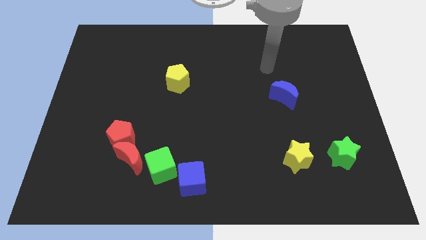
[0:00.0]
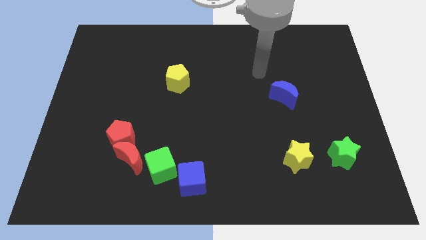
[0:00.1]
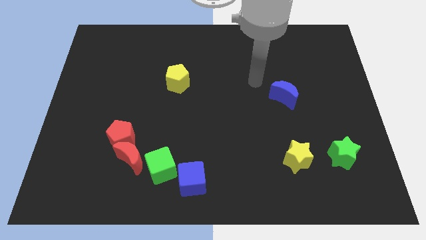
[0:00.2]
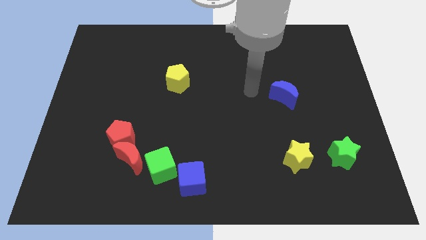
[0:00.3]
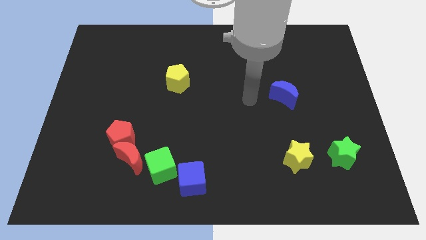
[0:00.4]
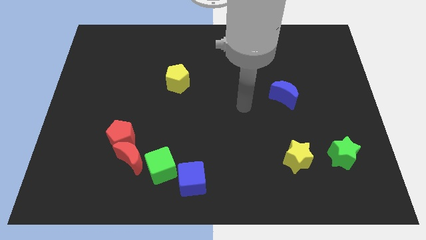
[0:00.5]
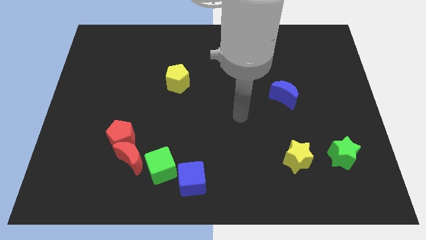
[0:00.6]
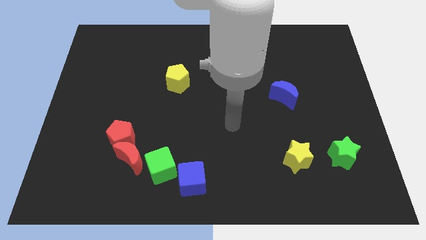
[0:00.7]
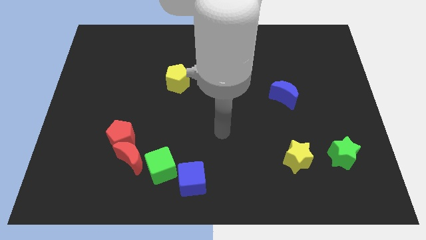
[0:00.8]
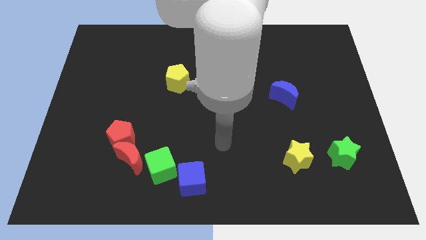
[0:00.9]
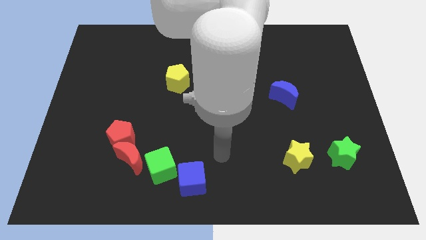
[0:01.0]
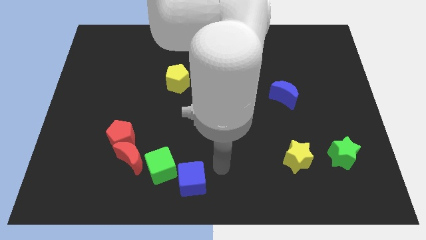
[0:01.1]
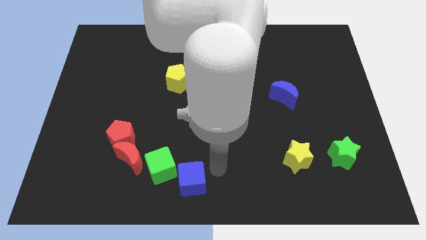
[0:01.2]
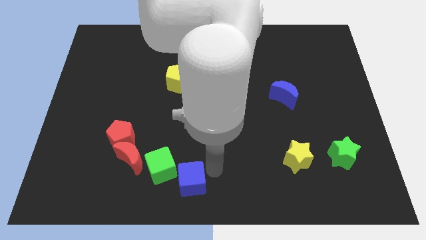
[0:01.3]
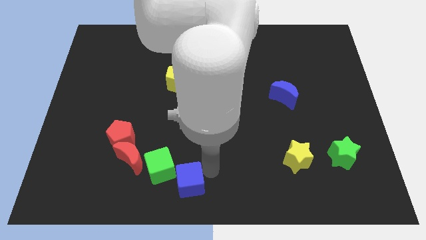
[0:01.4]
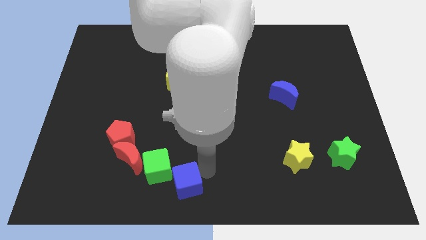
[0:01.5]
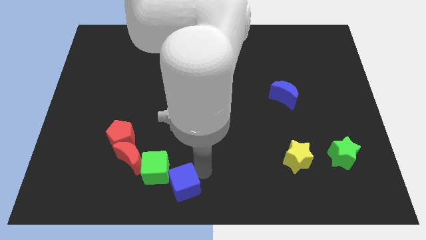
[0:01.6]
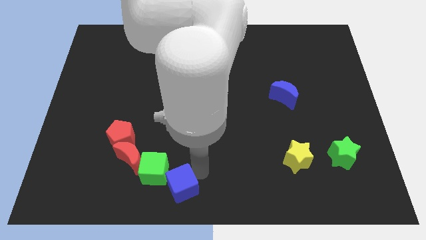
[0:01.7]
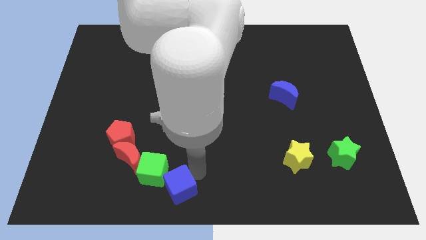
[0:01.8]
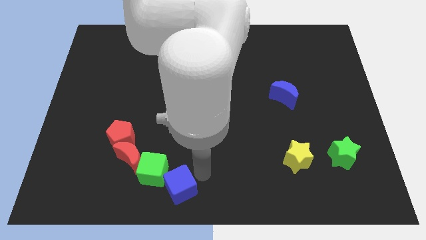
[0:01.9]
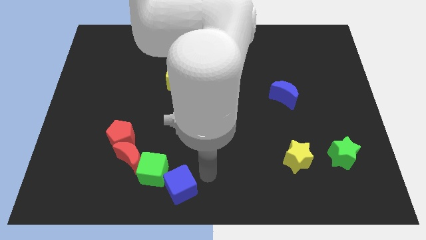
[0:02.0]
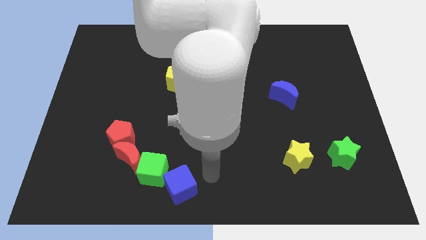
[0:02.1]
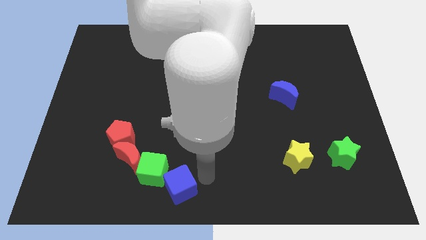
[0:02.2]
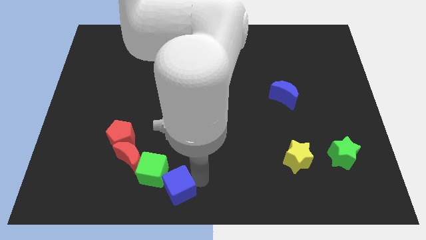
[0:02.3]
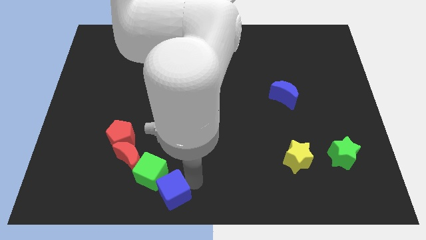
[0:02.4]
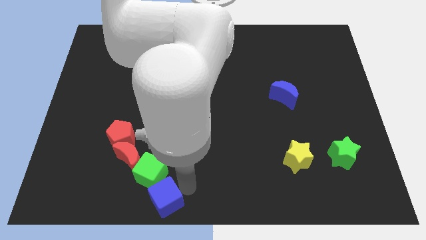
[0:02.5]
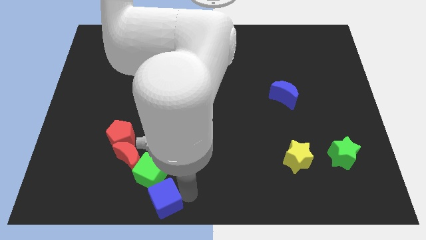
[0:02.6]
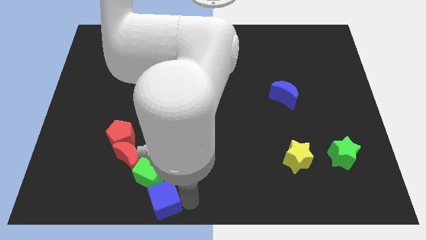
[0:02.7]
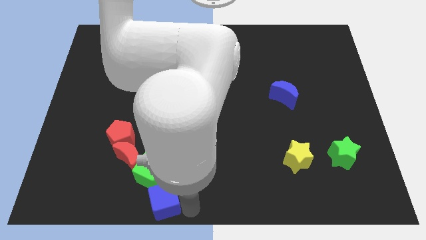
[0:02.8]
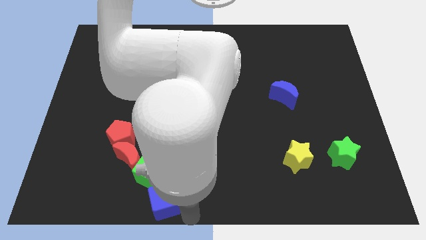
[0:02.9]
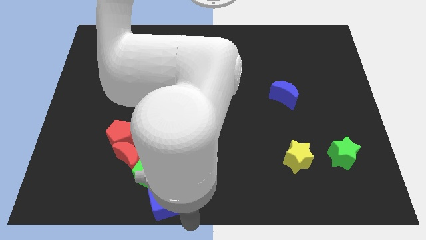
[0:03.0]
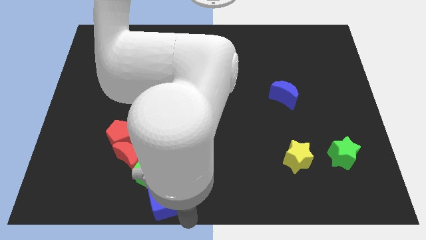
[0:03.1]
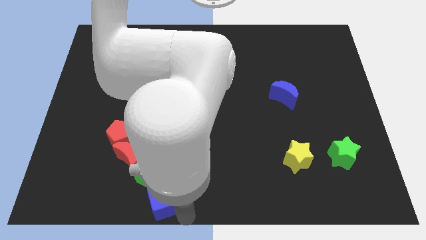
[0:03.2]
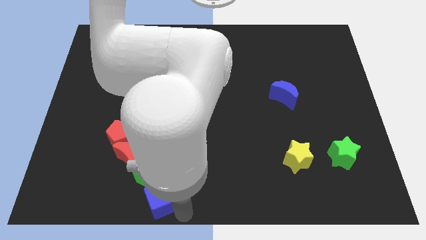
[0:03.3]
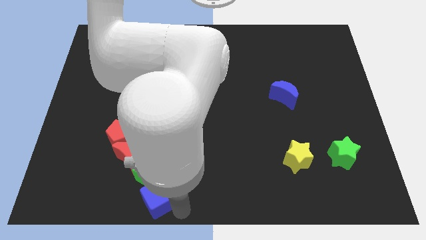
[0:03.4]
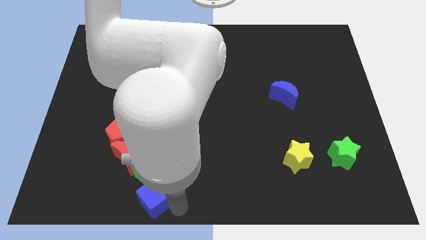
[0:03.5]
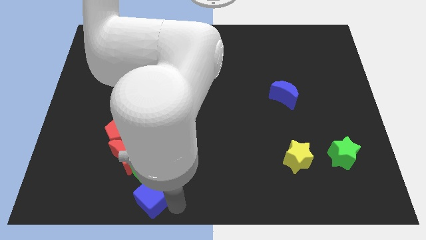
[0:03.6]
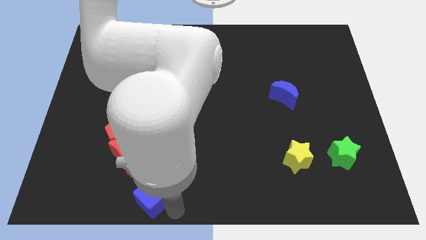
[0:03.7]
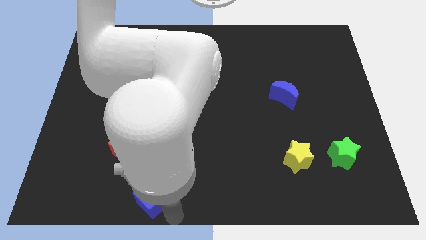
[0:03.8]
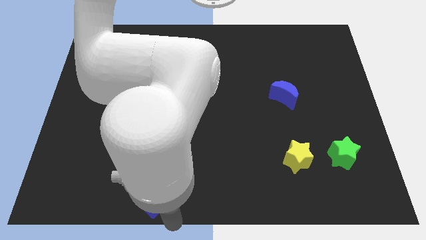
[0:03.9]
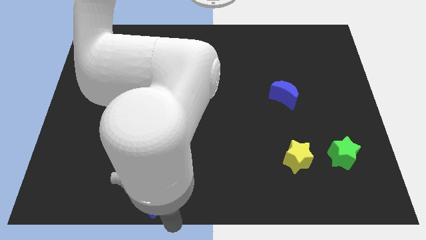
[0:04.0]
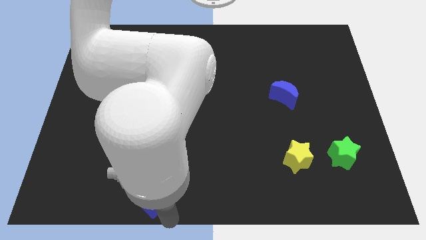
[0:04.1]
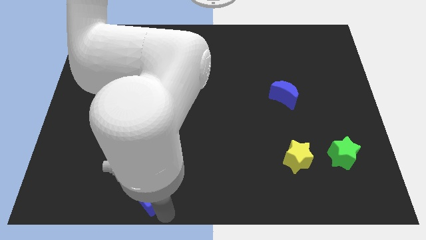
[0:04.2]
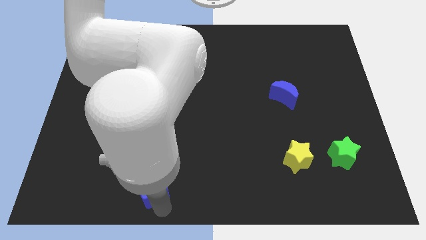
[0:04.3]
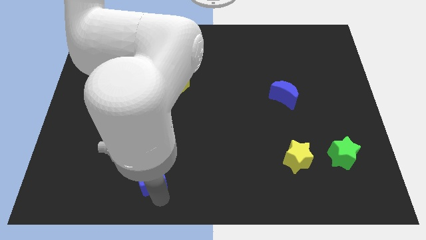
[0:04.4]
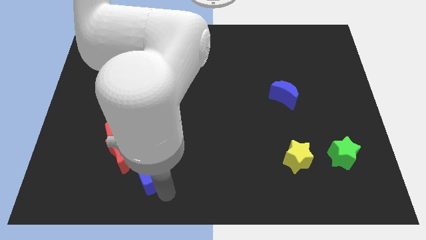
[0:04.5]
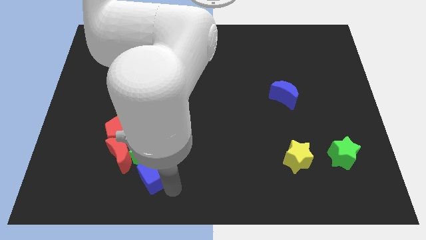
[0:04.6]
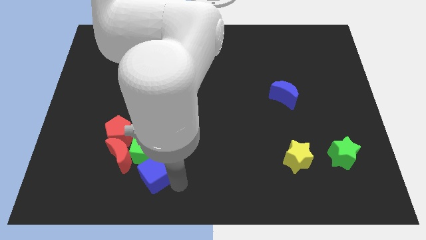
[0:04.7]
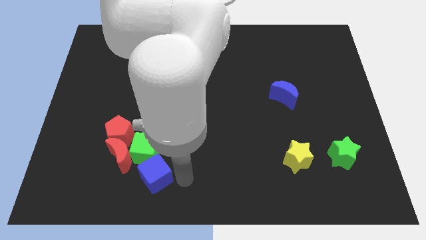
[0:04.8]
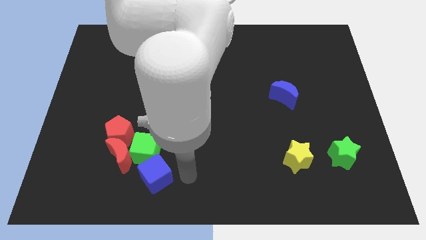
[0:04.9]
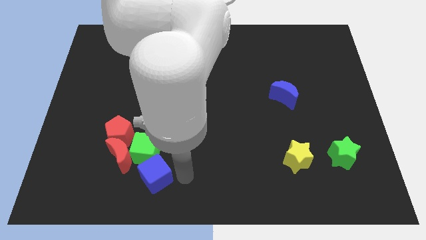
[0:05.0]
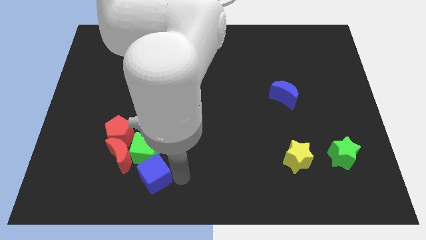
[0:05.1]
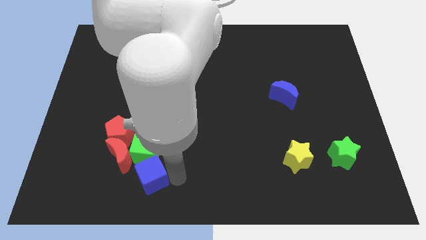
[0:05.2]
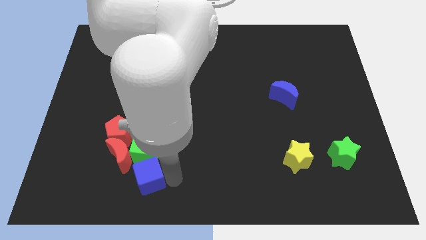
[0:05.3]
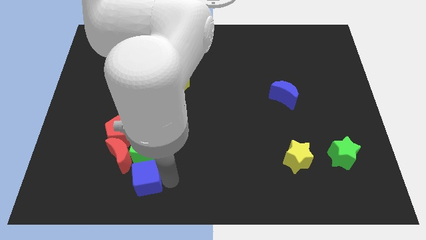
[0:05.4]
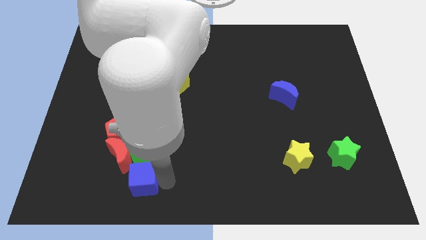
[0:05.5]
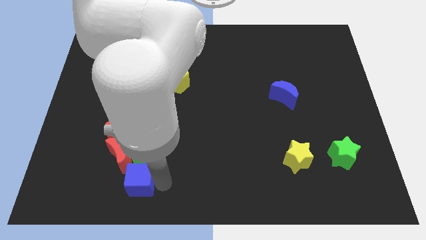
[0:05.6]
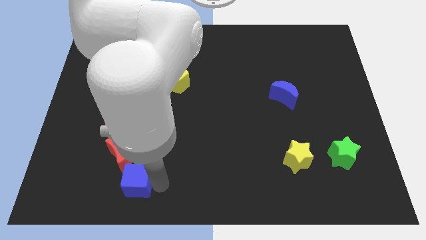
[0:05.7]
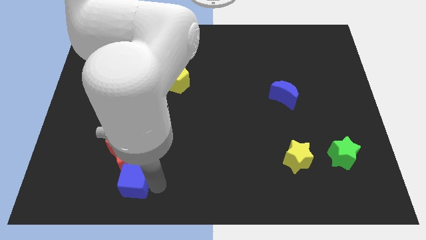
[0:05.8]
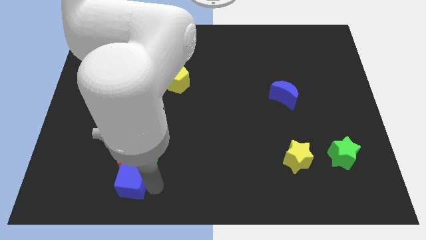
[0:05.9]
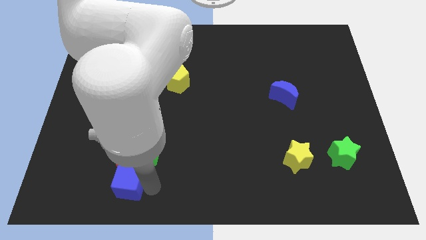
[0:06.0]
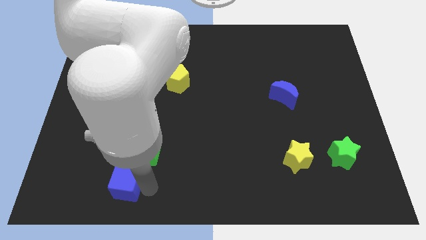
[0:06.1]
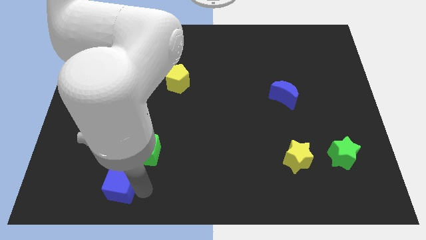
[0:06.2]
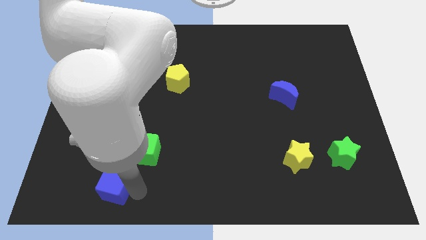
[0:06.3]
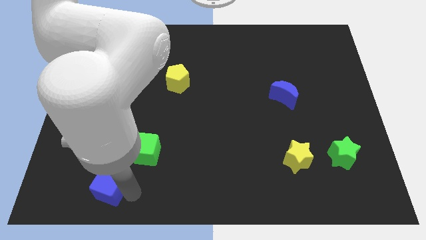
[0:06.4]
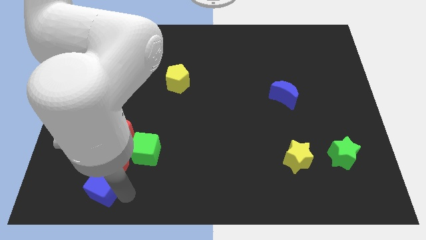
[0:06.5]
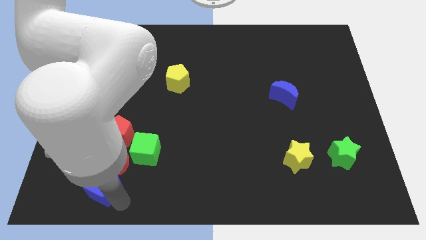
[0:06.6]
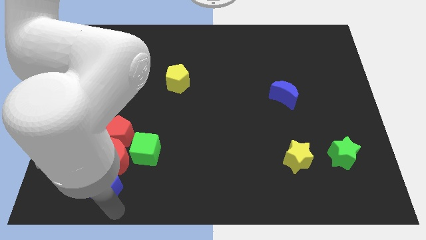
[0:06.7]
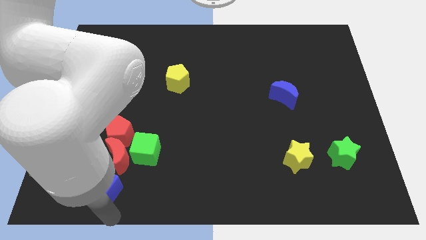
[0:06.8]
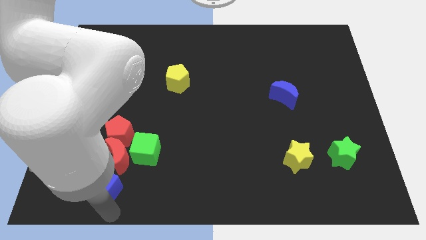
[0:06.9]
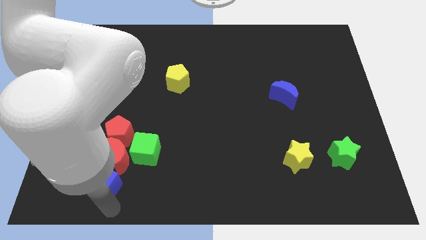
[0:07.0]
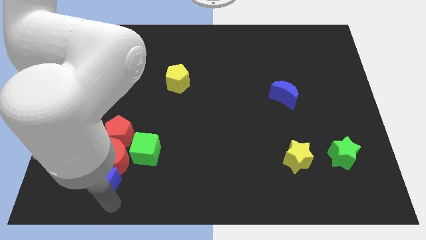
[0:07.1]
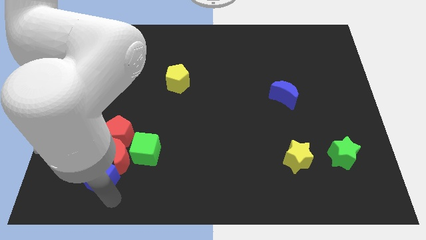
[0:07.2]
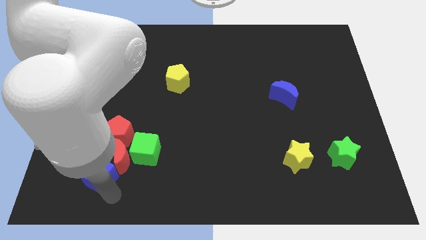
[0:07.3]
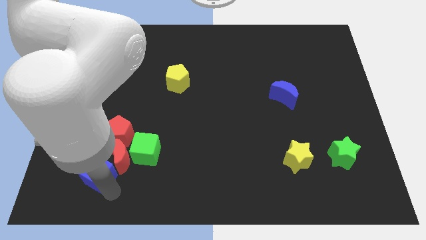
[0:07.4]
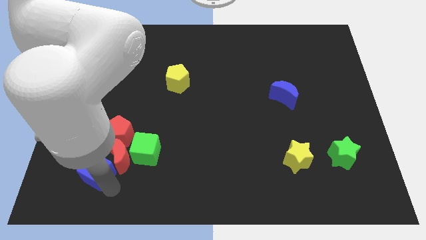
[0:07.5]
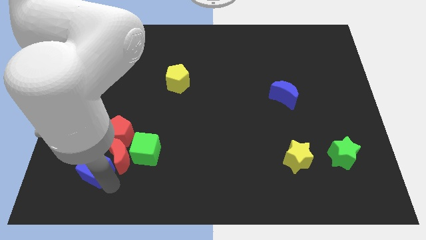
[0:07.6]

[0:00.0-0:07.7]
put the blue cube left of the green cube
